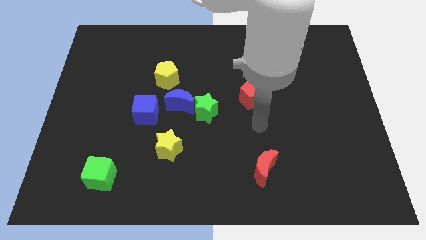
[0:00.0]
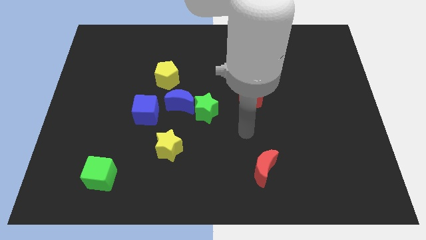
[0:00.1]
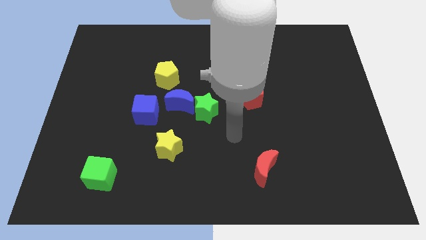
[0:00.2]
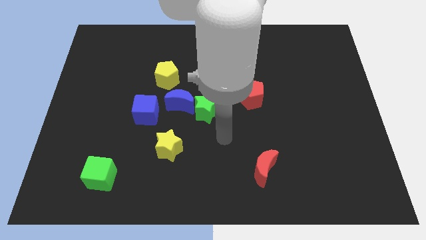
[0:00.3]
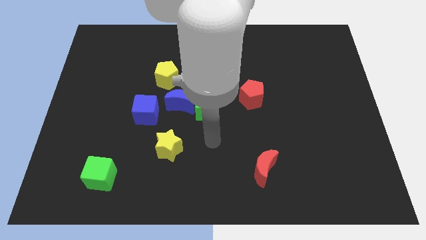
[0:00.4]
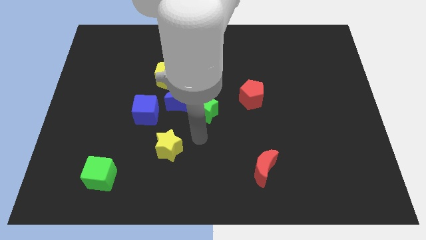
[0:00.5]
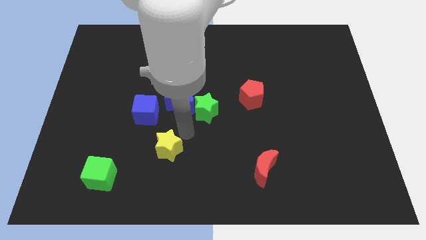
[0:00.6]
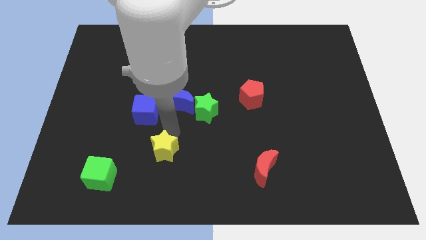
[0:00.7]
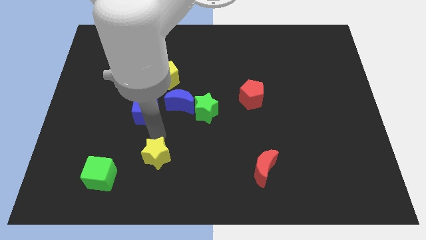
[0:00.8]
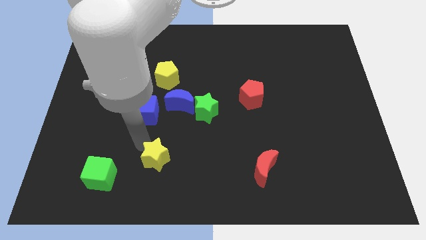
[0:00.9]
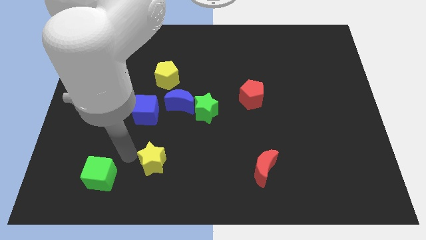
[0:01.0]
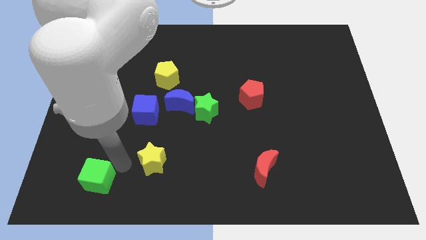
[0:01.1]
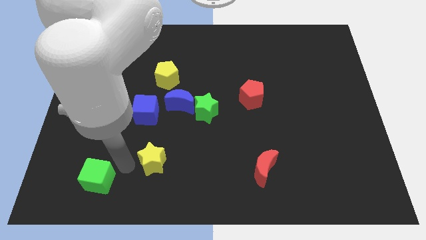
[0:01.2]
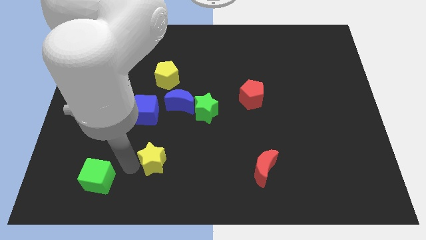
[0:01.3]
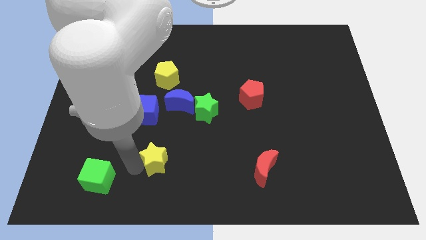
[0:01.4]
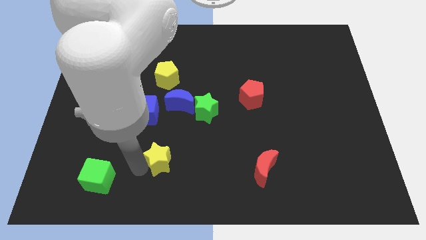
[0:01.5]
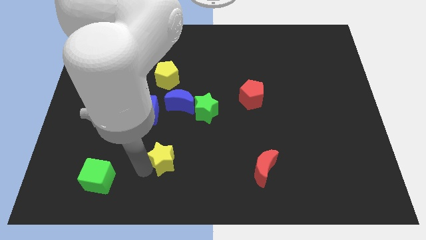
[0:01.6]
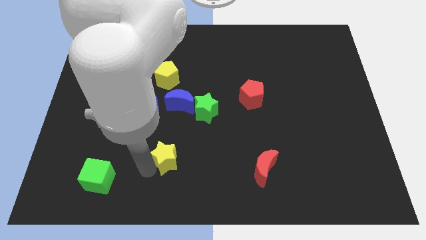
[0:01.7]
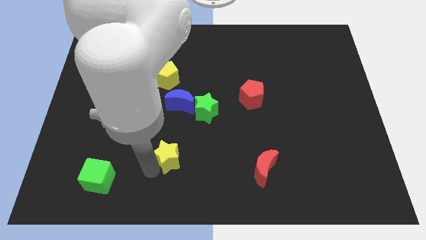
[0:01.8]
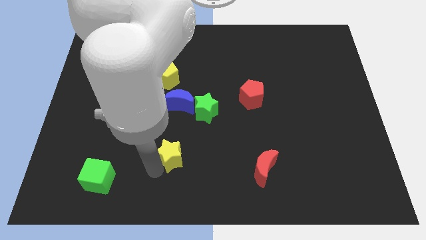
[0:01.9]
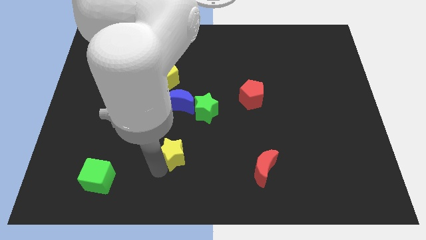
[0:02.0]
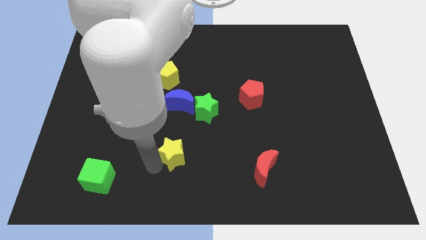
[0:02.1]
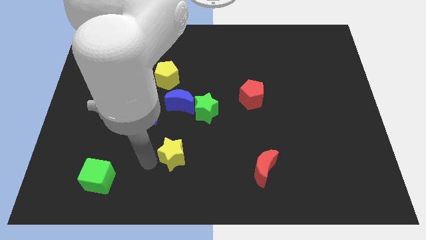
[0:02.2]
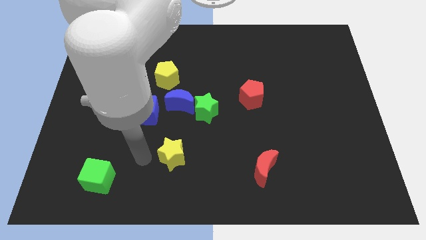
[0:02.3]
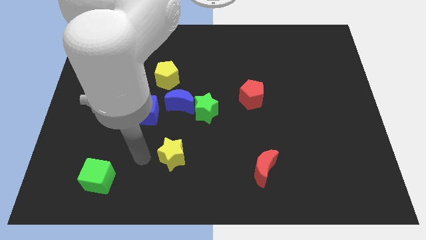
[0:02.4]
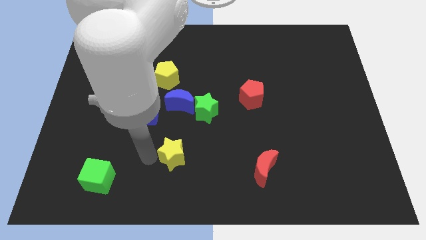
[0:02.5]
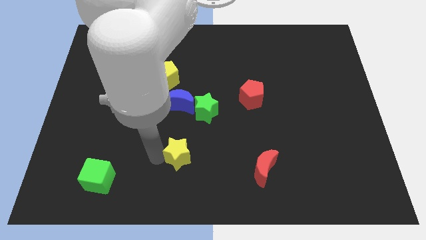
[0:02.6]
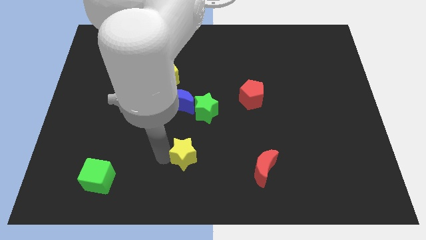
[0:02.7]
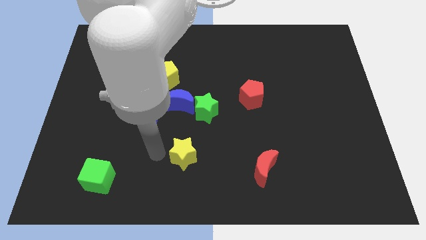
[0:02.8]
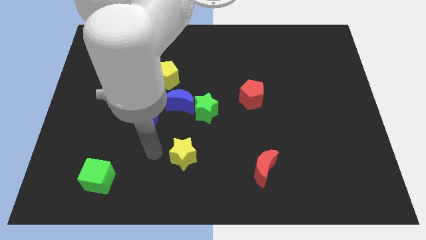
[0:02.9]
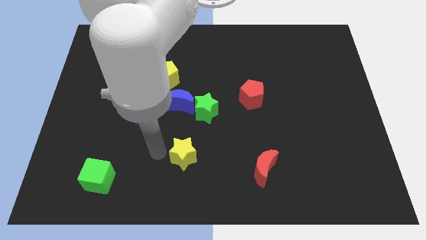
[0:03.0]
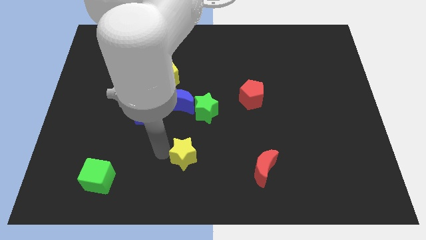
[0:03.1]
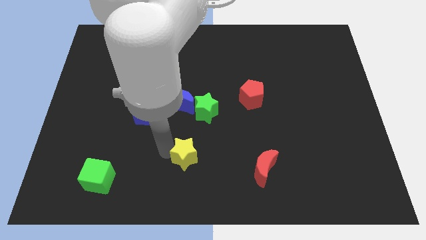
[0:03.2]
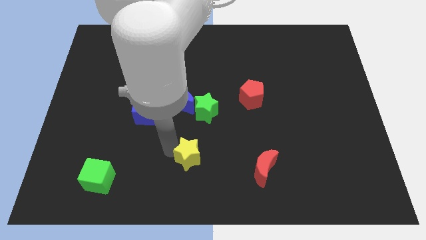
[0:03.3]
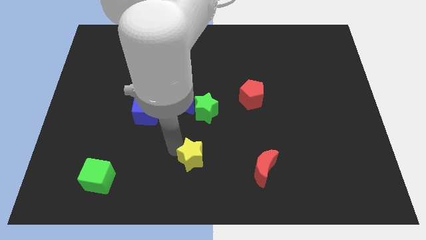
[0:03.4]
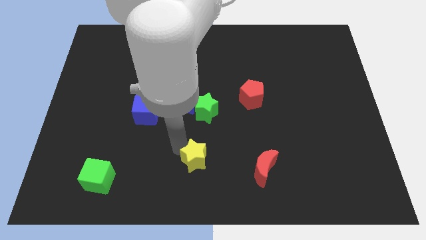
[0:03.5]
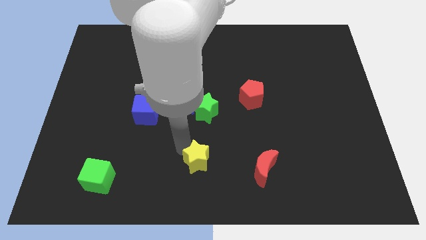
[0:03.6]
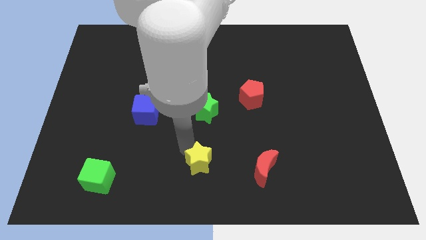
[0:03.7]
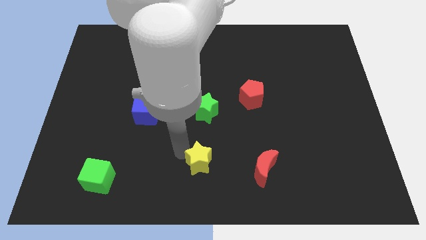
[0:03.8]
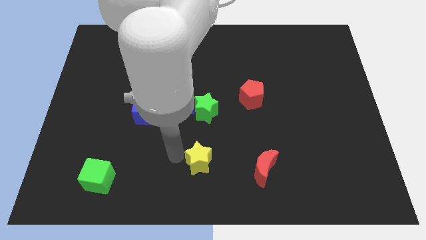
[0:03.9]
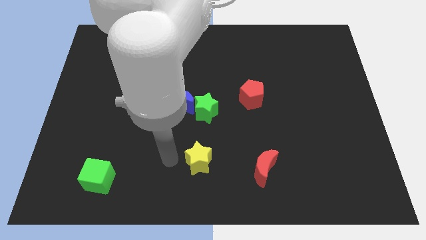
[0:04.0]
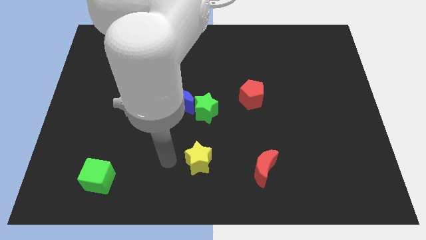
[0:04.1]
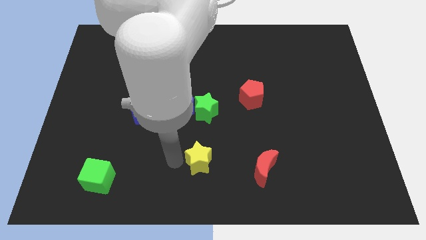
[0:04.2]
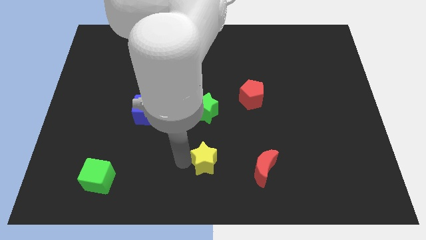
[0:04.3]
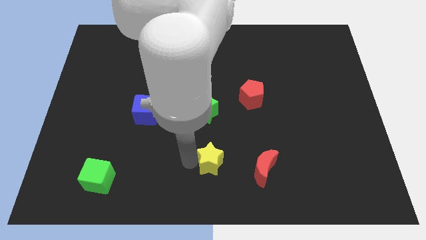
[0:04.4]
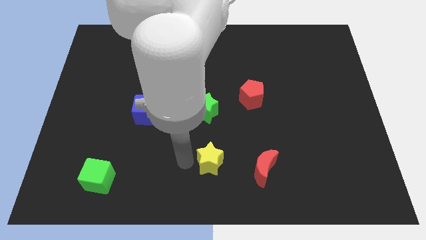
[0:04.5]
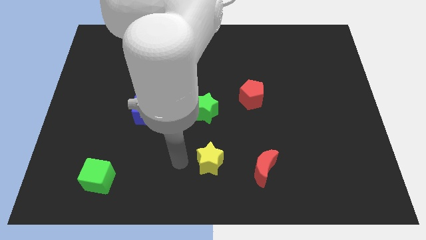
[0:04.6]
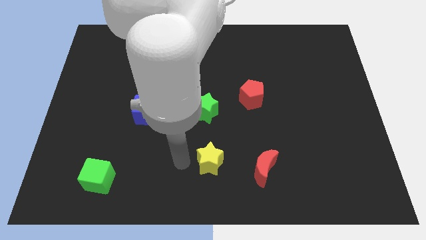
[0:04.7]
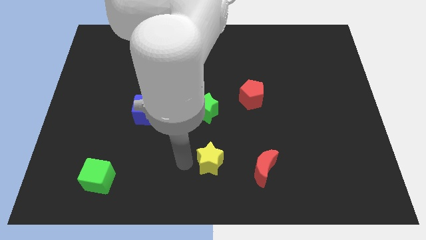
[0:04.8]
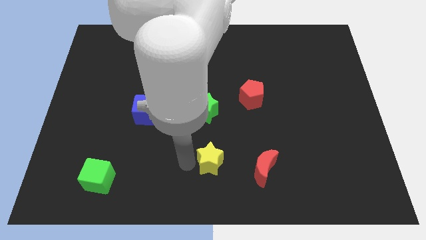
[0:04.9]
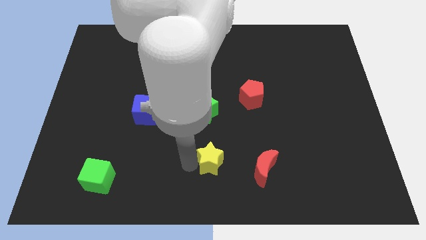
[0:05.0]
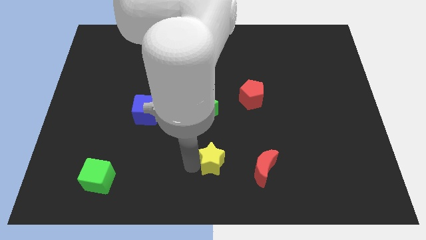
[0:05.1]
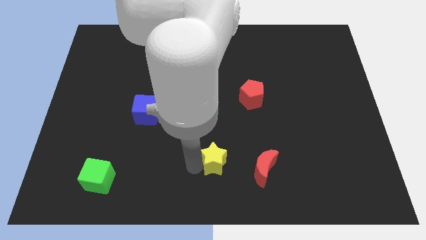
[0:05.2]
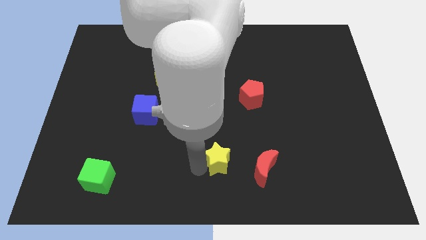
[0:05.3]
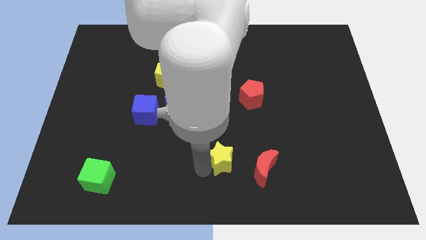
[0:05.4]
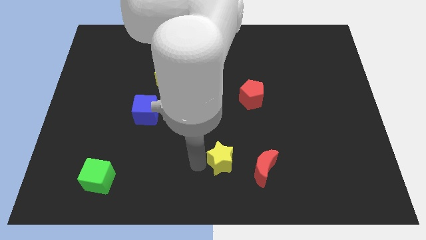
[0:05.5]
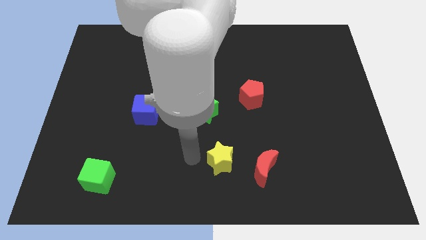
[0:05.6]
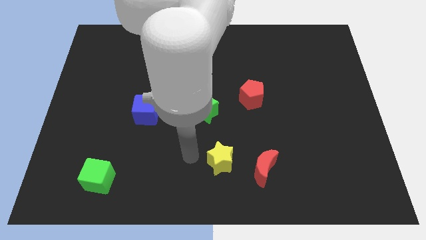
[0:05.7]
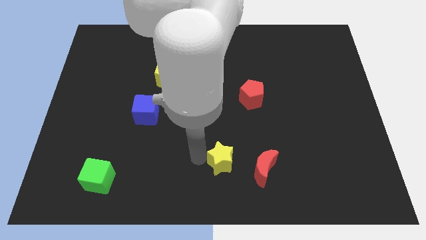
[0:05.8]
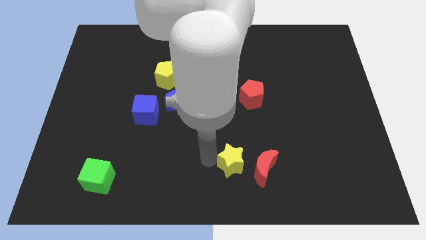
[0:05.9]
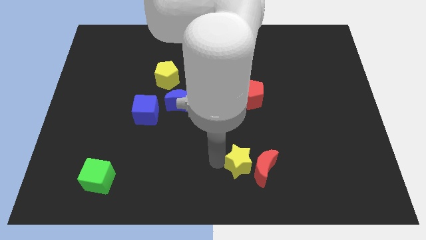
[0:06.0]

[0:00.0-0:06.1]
move the yellow star close to the red moon

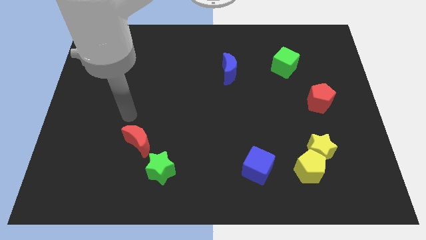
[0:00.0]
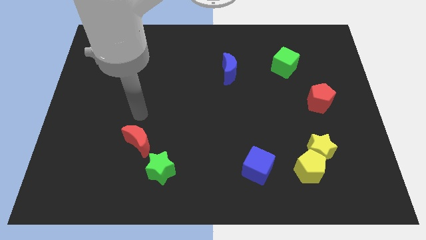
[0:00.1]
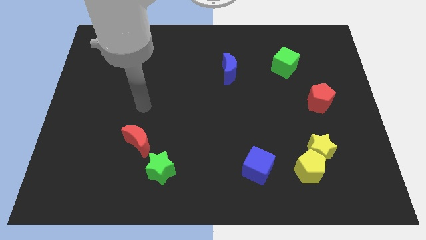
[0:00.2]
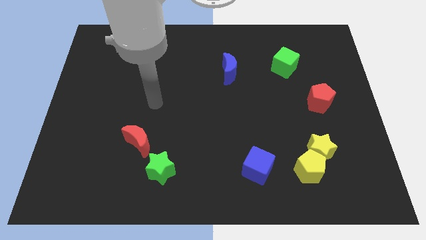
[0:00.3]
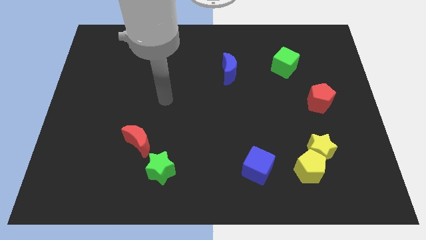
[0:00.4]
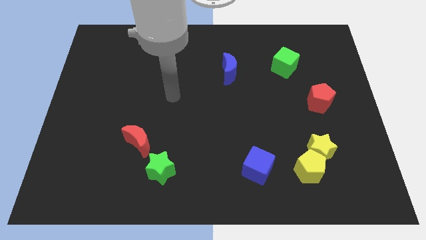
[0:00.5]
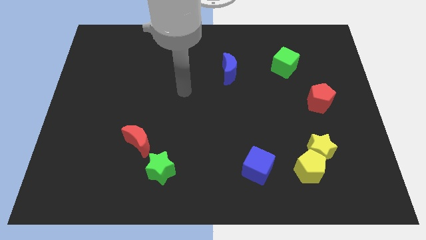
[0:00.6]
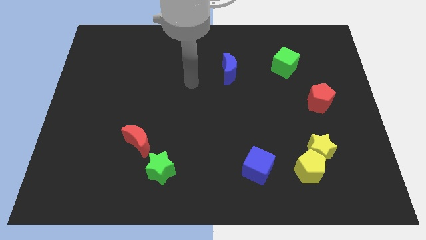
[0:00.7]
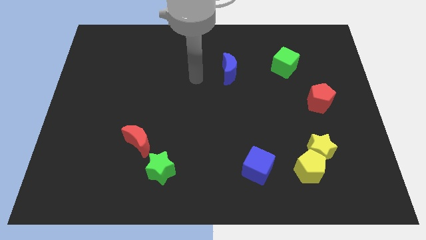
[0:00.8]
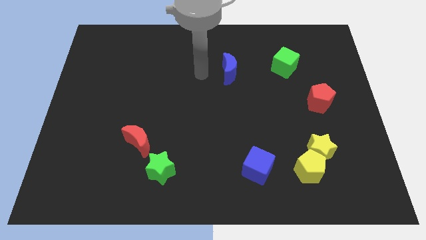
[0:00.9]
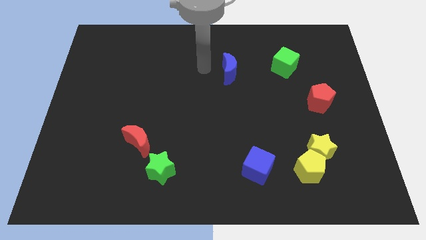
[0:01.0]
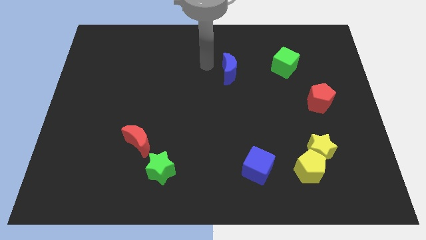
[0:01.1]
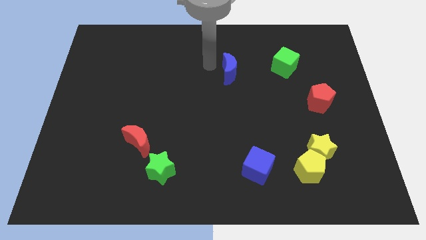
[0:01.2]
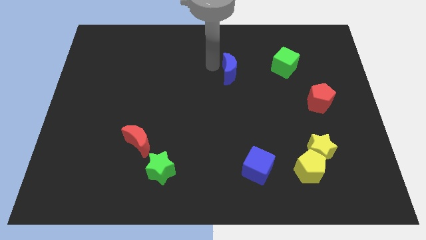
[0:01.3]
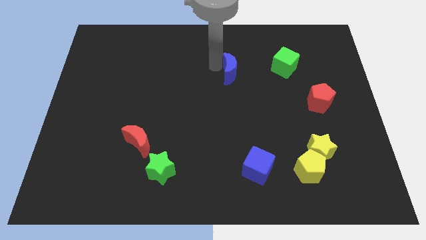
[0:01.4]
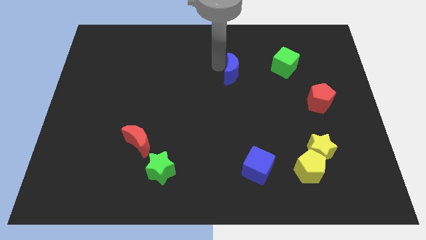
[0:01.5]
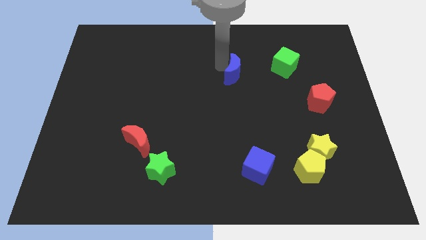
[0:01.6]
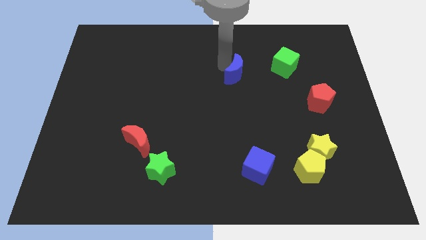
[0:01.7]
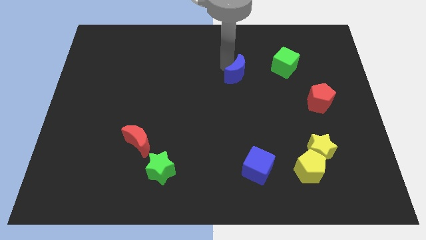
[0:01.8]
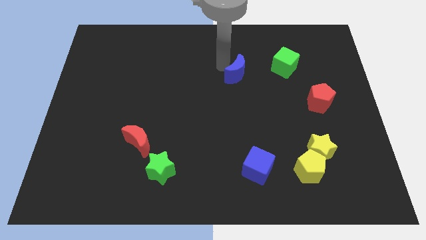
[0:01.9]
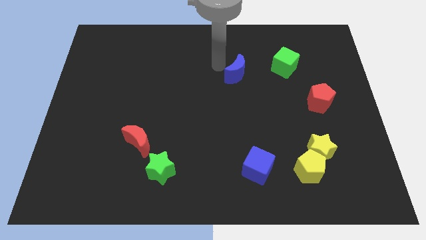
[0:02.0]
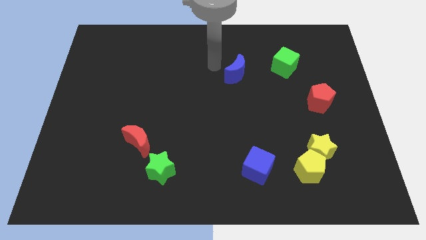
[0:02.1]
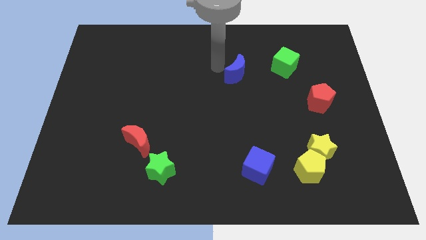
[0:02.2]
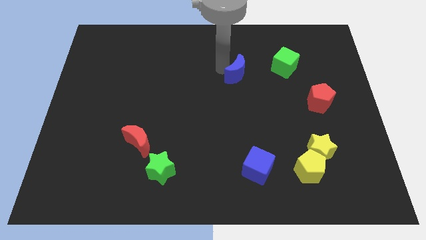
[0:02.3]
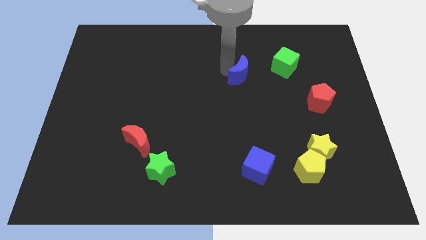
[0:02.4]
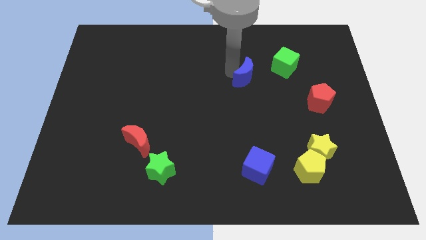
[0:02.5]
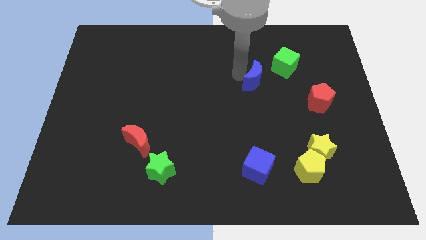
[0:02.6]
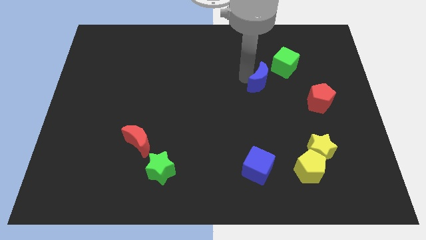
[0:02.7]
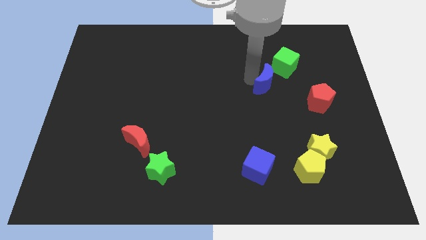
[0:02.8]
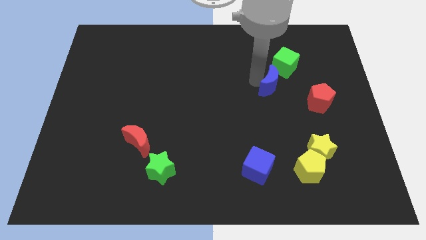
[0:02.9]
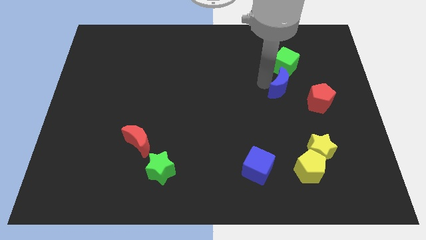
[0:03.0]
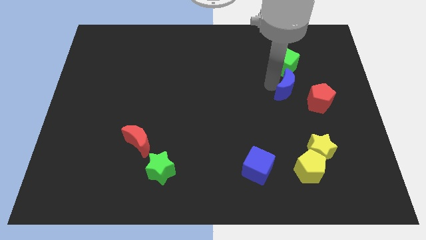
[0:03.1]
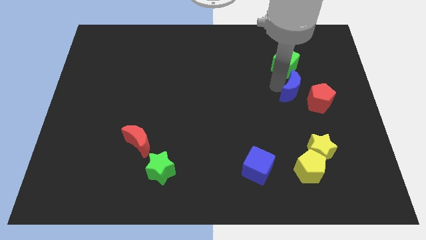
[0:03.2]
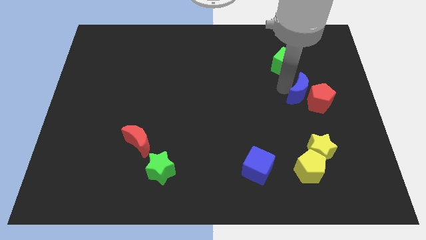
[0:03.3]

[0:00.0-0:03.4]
slide the blue moon towards the red pentagon
